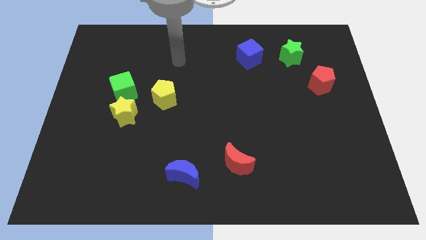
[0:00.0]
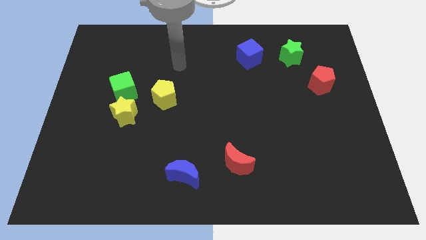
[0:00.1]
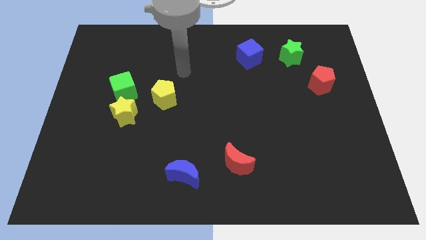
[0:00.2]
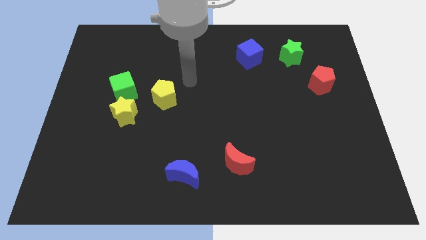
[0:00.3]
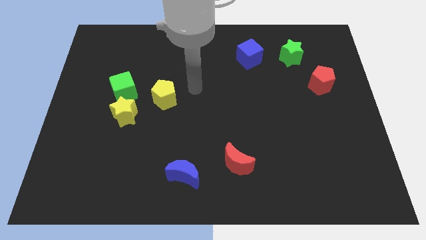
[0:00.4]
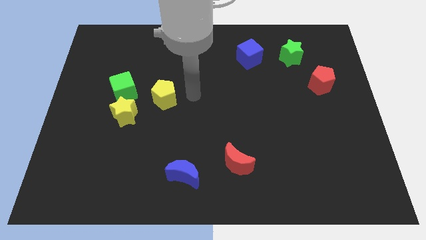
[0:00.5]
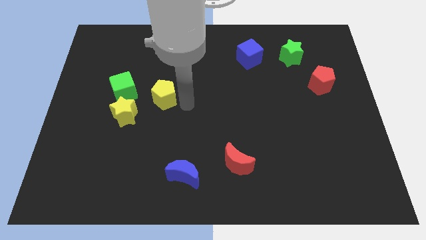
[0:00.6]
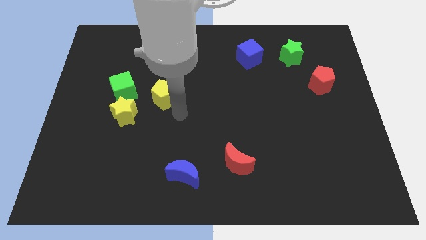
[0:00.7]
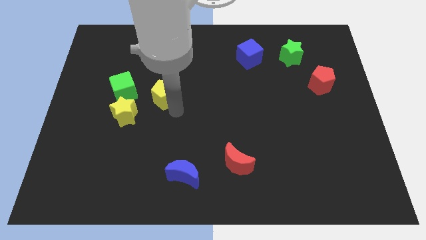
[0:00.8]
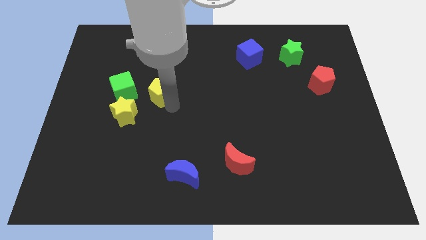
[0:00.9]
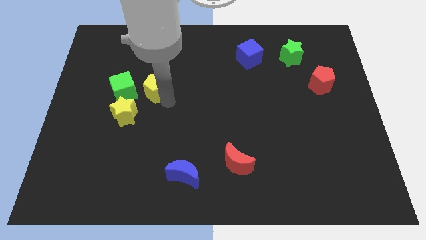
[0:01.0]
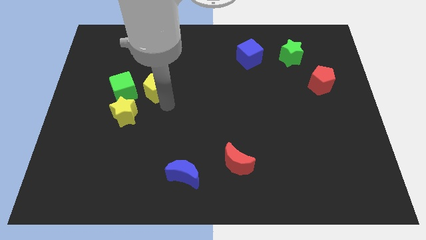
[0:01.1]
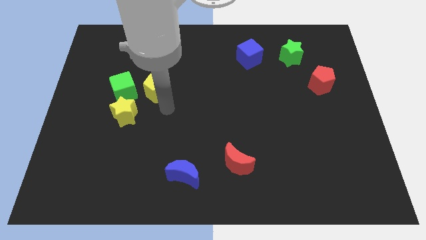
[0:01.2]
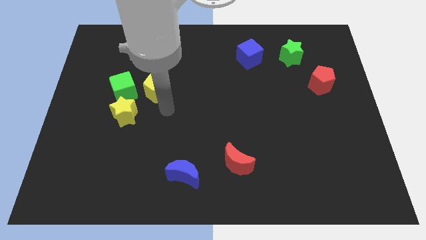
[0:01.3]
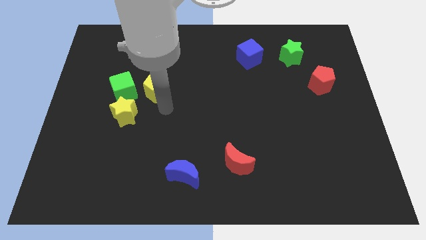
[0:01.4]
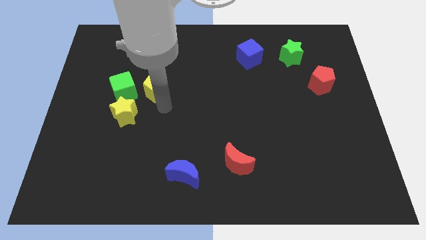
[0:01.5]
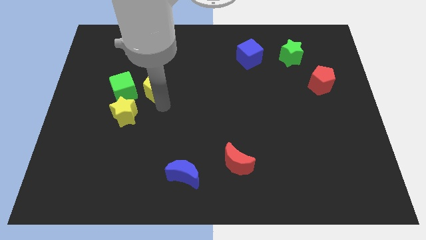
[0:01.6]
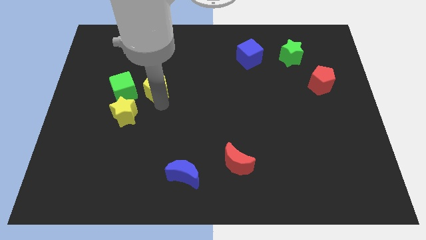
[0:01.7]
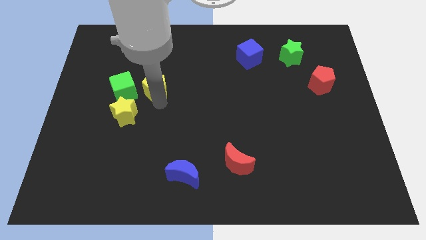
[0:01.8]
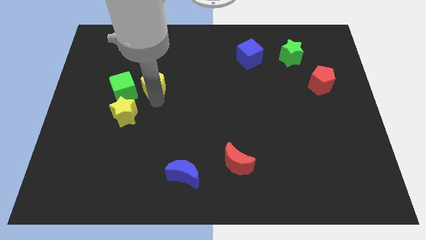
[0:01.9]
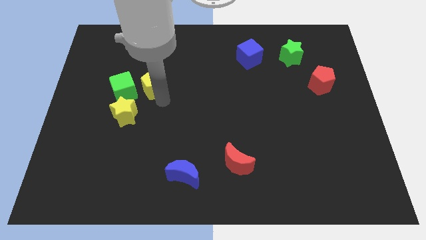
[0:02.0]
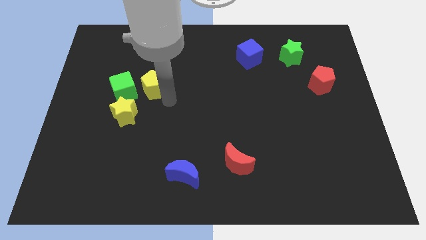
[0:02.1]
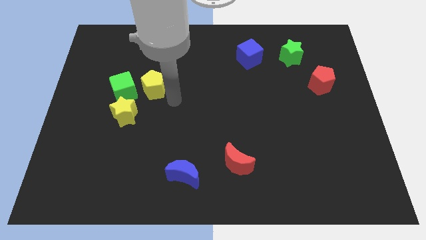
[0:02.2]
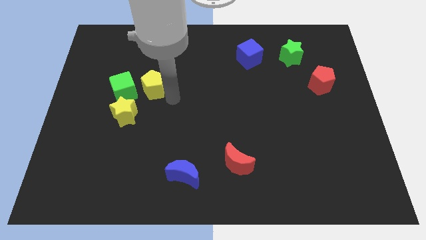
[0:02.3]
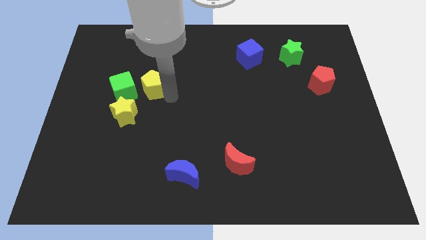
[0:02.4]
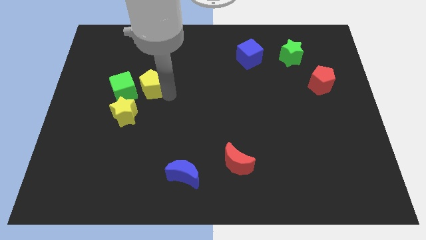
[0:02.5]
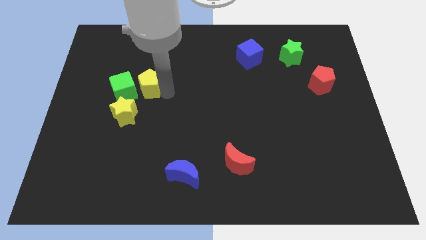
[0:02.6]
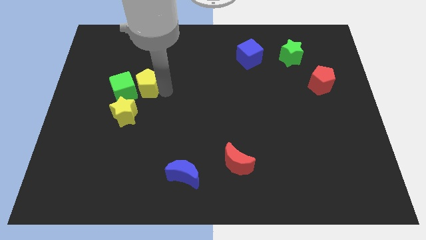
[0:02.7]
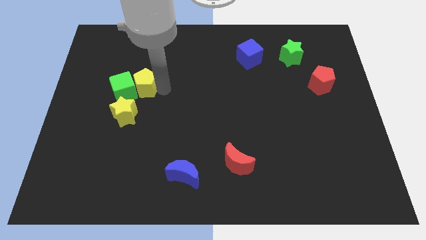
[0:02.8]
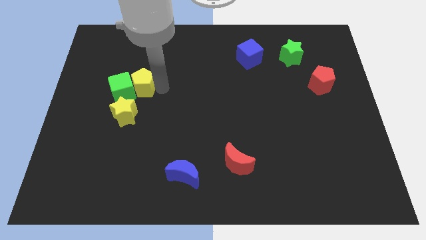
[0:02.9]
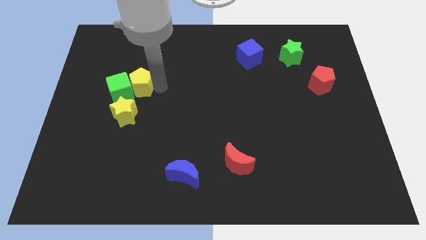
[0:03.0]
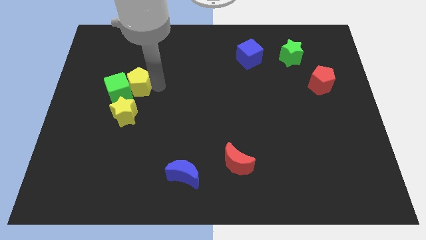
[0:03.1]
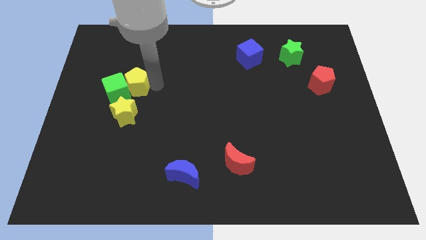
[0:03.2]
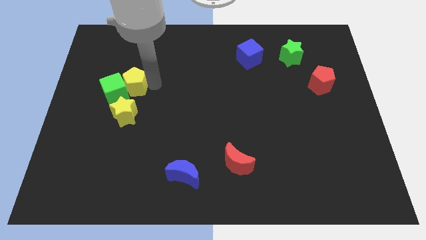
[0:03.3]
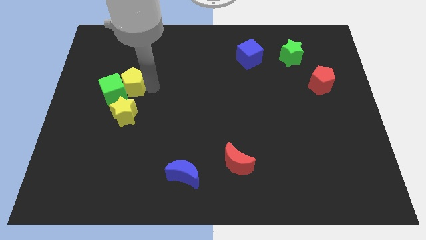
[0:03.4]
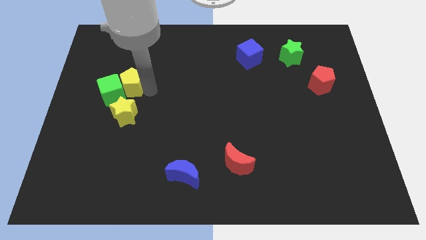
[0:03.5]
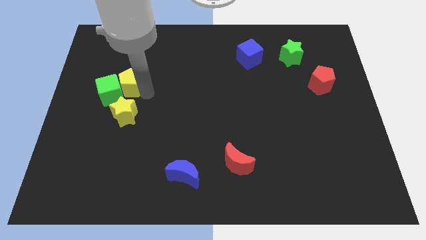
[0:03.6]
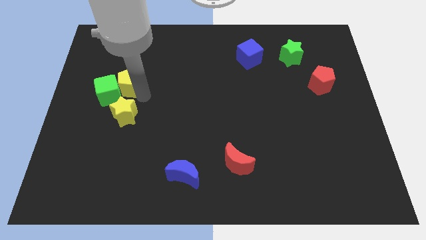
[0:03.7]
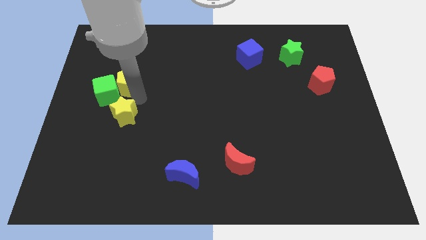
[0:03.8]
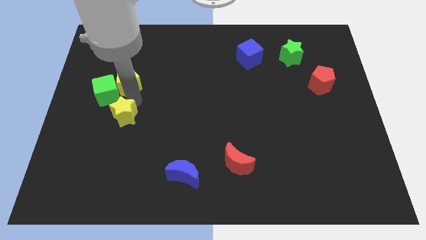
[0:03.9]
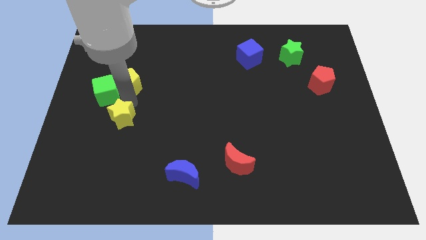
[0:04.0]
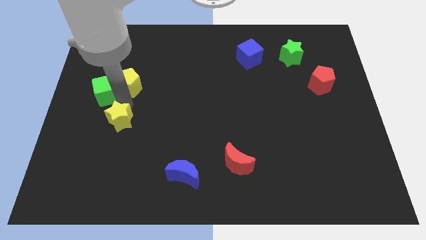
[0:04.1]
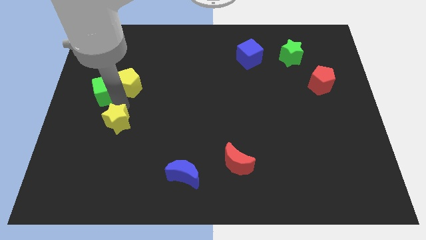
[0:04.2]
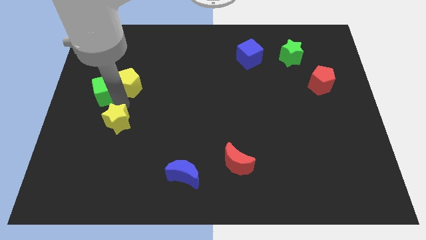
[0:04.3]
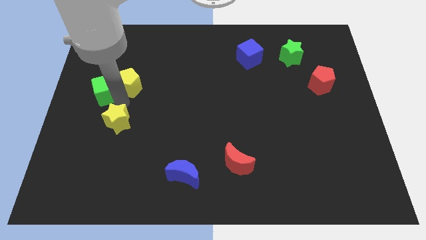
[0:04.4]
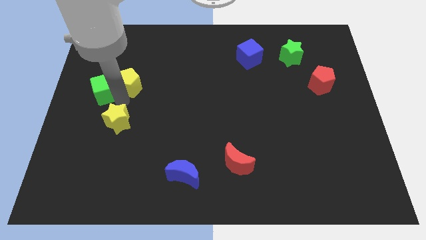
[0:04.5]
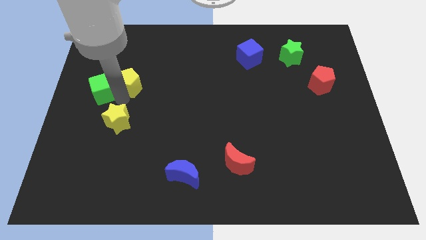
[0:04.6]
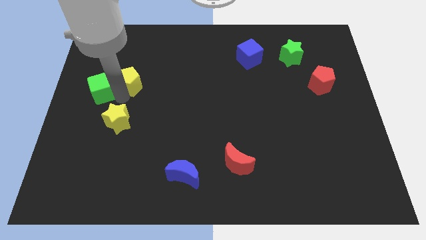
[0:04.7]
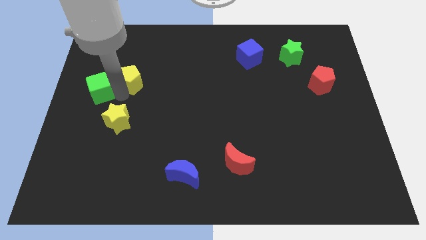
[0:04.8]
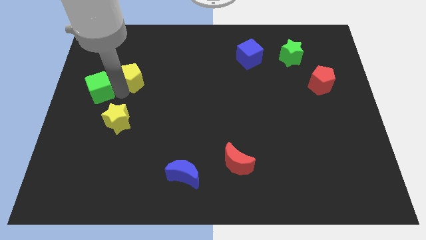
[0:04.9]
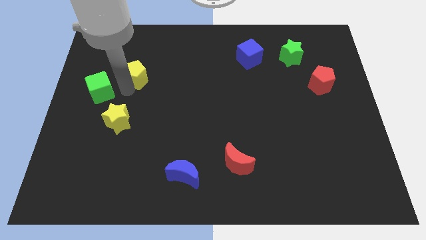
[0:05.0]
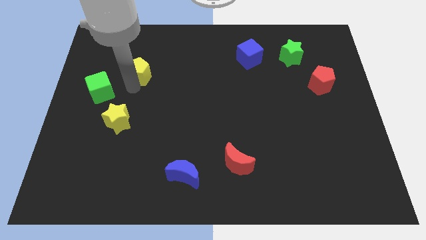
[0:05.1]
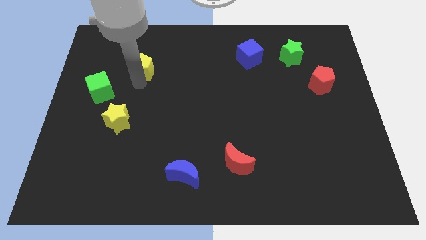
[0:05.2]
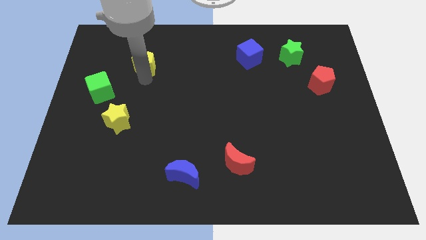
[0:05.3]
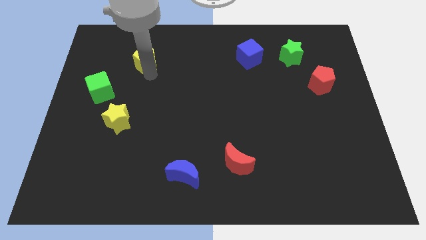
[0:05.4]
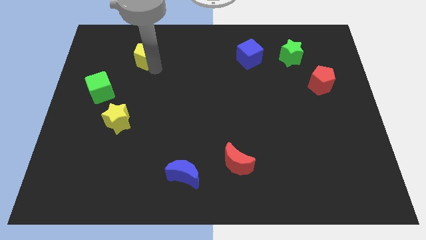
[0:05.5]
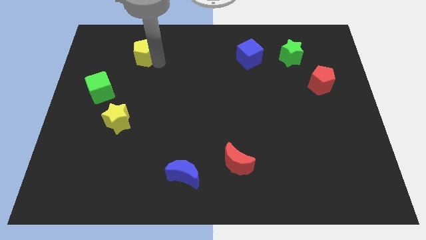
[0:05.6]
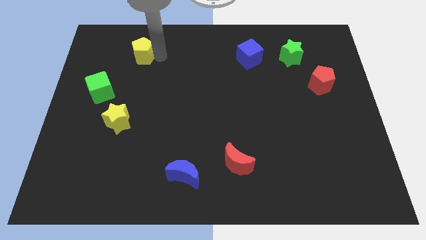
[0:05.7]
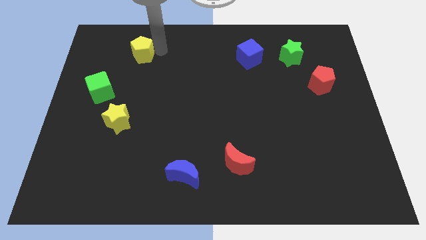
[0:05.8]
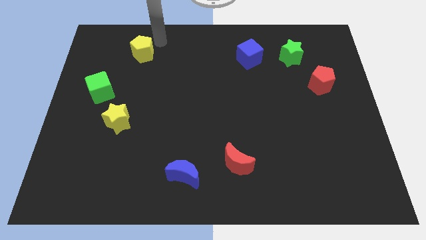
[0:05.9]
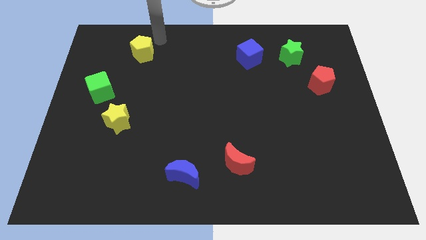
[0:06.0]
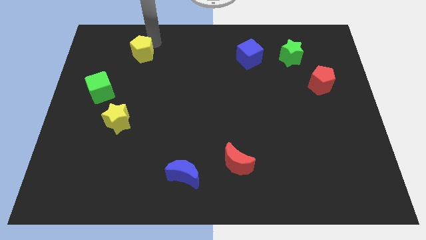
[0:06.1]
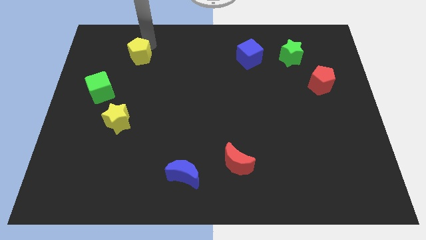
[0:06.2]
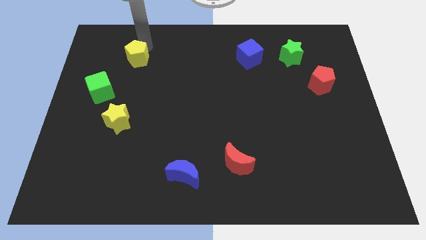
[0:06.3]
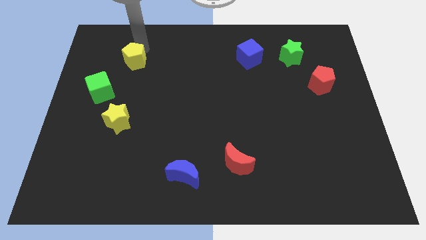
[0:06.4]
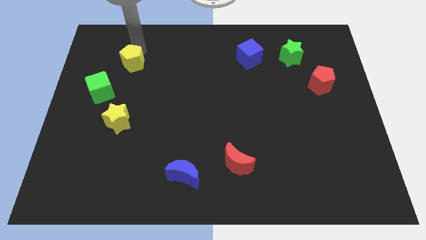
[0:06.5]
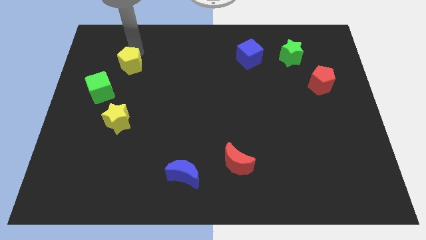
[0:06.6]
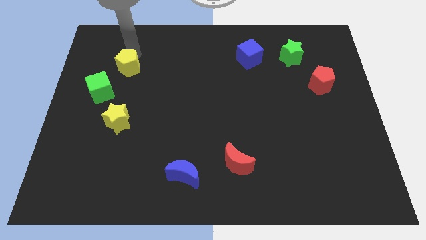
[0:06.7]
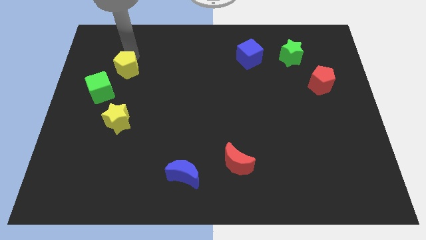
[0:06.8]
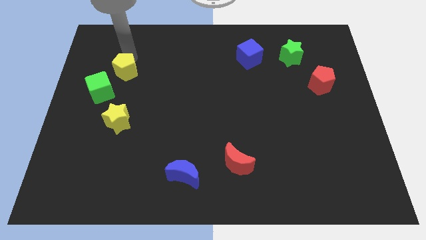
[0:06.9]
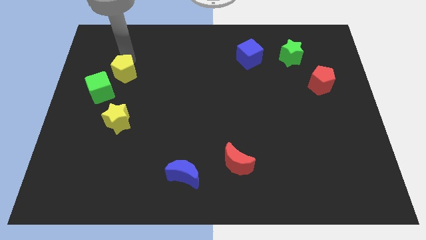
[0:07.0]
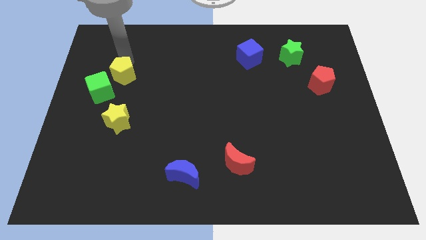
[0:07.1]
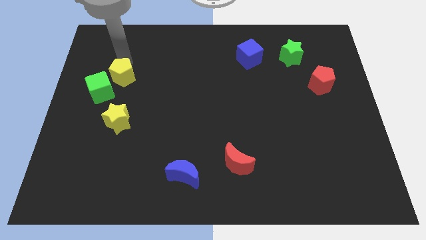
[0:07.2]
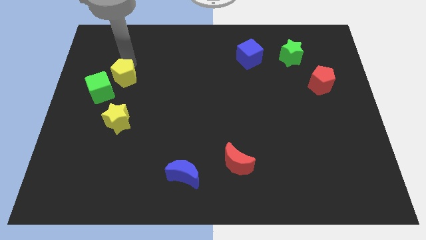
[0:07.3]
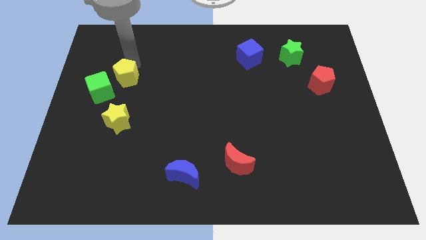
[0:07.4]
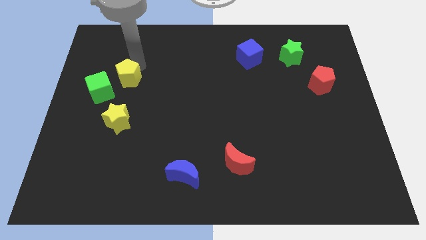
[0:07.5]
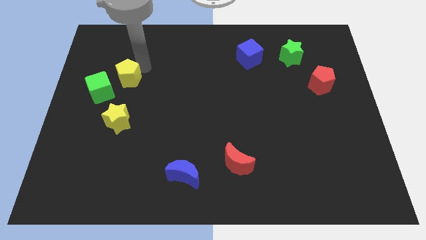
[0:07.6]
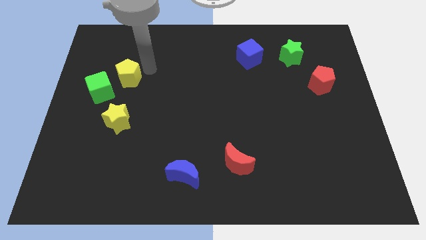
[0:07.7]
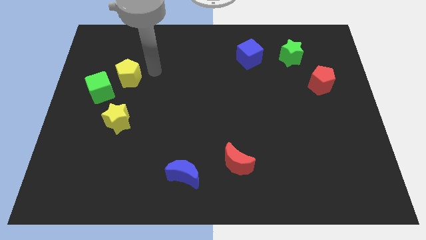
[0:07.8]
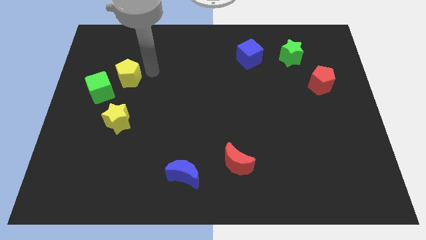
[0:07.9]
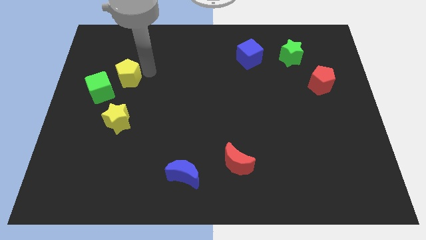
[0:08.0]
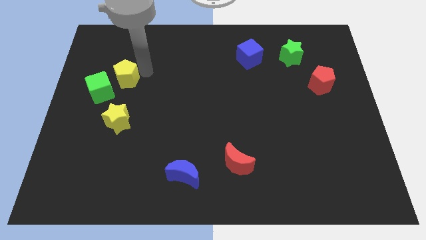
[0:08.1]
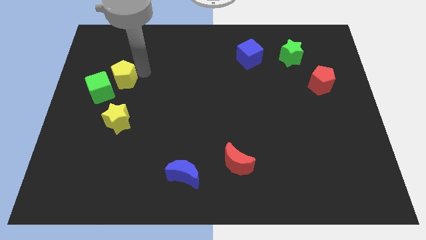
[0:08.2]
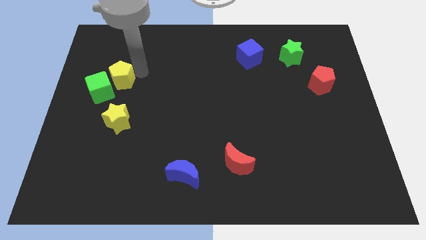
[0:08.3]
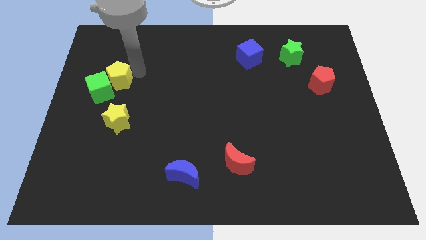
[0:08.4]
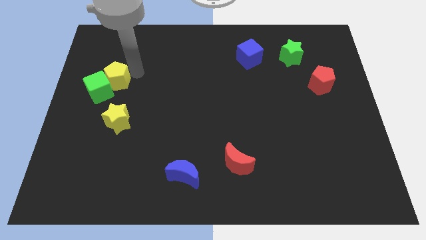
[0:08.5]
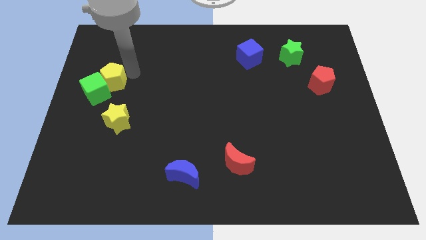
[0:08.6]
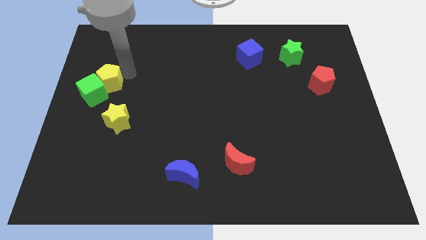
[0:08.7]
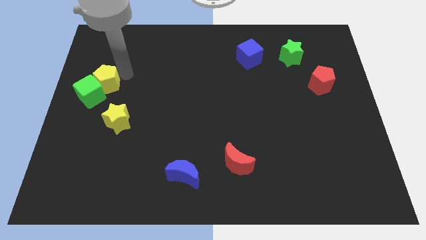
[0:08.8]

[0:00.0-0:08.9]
push the yellow pentagon to the center left
